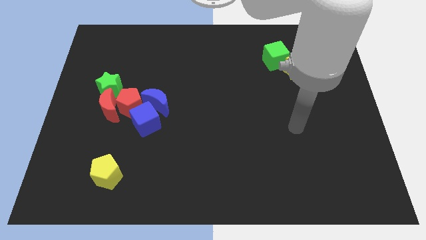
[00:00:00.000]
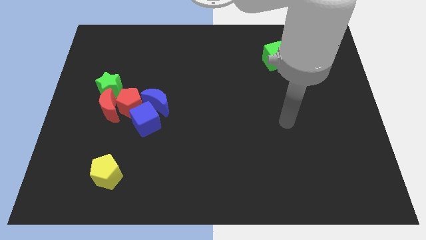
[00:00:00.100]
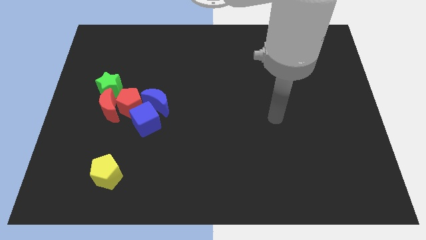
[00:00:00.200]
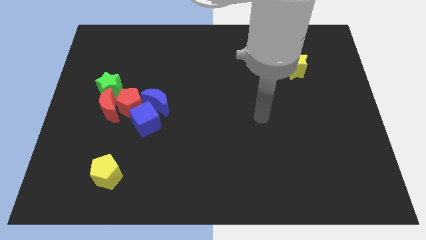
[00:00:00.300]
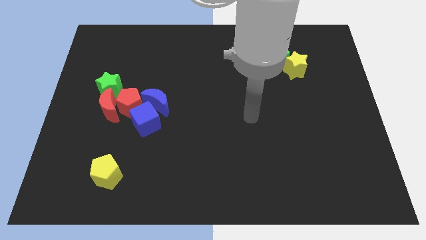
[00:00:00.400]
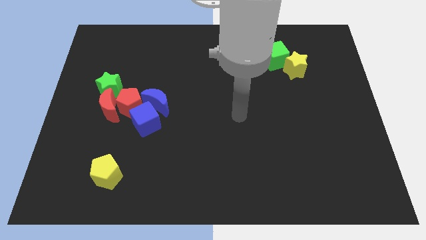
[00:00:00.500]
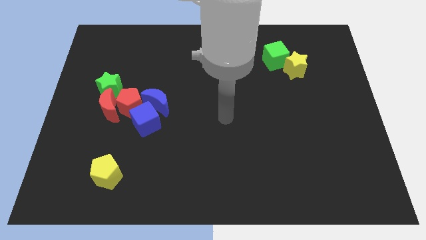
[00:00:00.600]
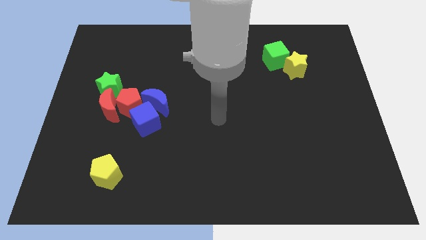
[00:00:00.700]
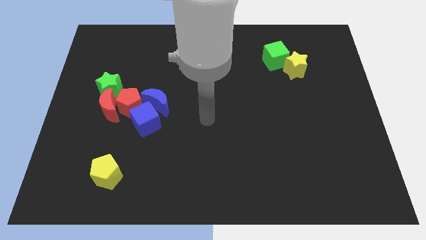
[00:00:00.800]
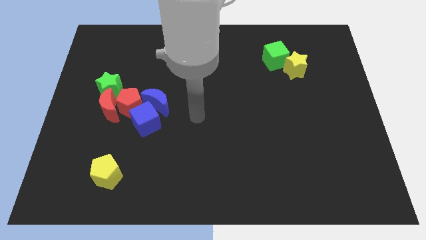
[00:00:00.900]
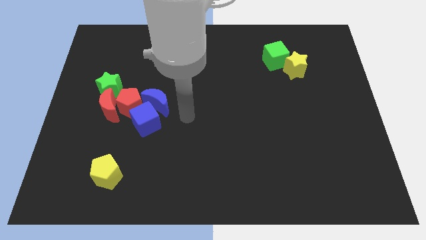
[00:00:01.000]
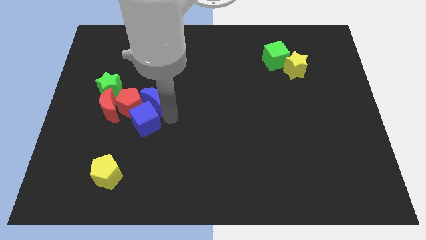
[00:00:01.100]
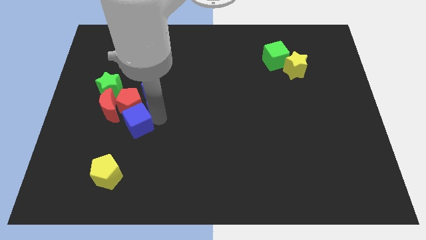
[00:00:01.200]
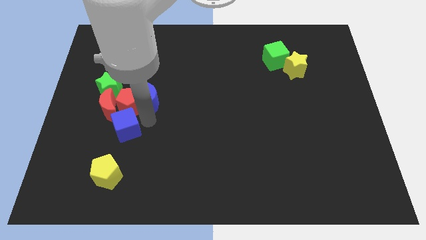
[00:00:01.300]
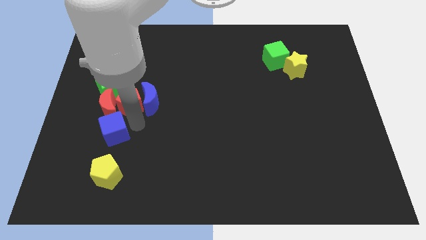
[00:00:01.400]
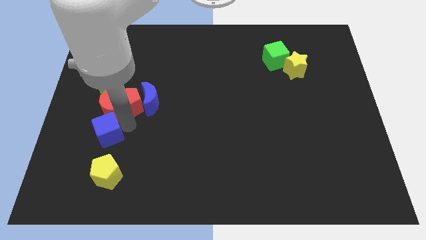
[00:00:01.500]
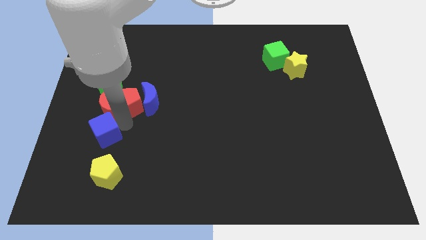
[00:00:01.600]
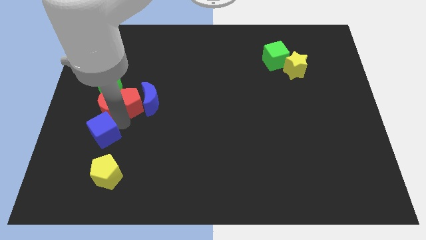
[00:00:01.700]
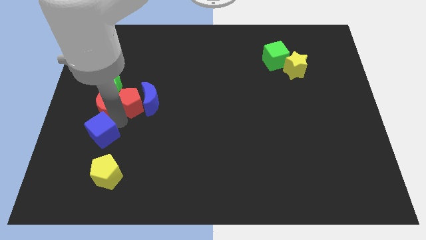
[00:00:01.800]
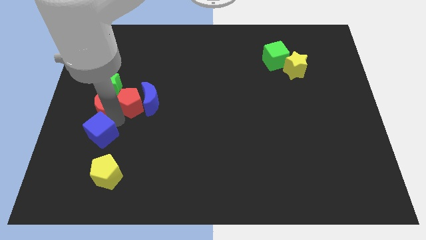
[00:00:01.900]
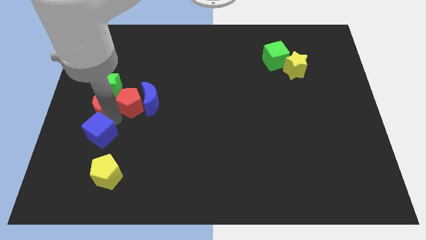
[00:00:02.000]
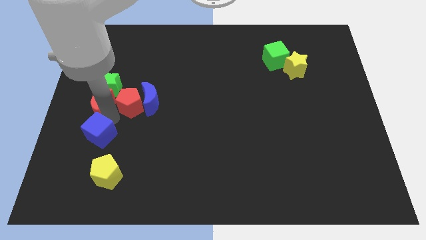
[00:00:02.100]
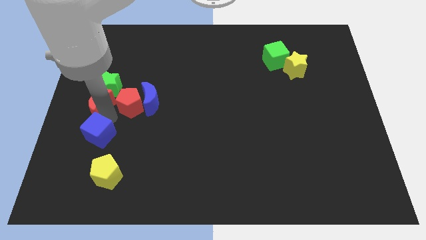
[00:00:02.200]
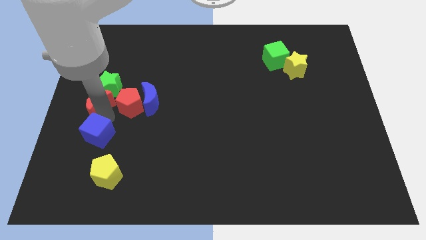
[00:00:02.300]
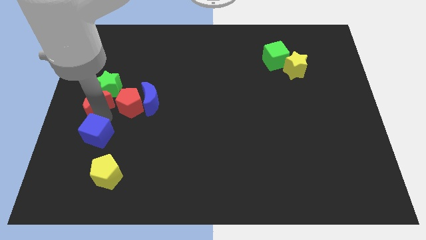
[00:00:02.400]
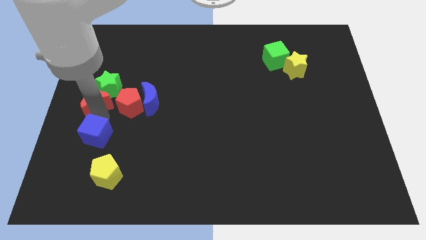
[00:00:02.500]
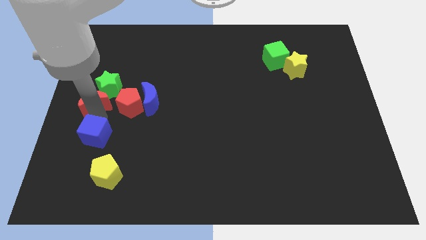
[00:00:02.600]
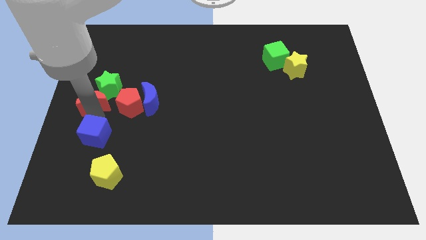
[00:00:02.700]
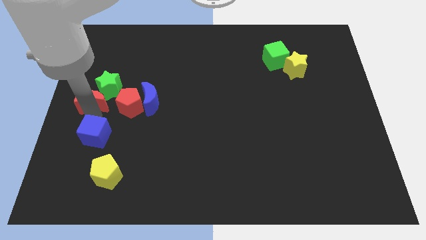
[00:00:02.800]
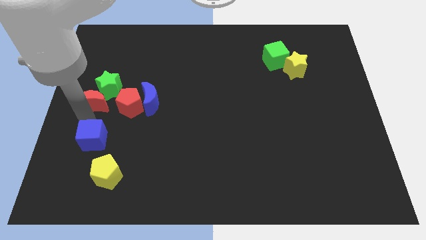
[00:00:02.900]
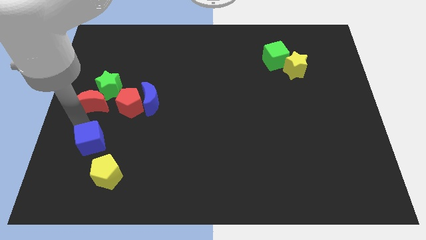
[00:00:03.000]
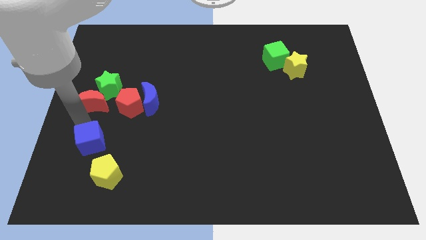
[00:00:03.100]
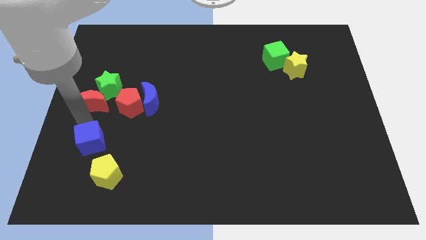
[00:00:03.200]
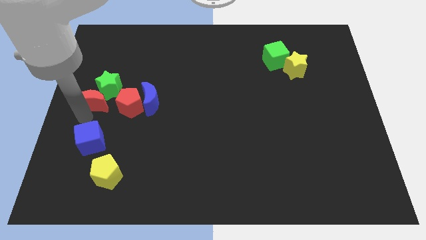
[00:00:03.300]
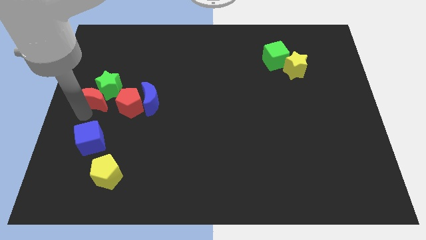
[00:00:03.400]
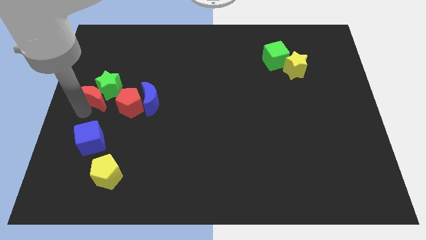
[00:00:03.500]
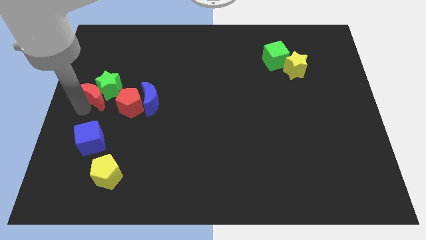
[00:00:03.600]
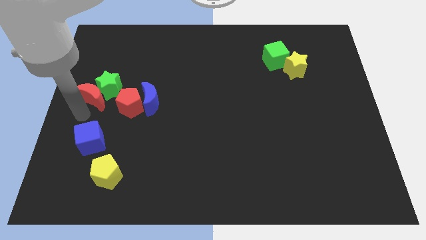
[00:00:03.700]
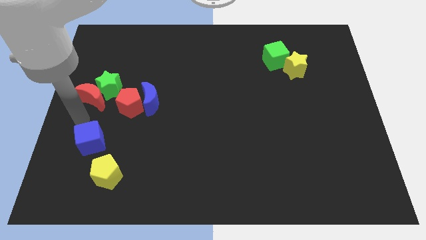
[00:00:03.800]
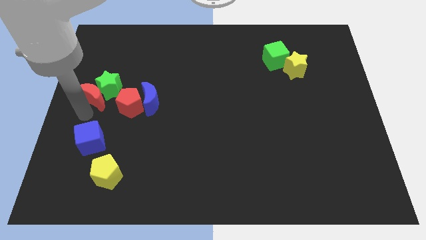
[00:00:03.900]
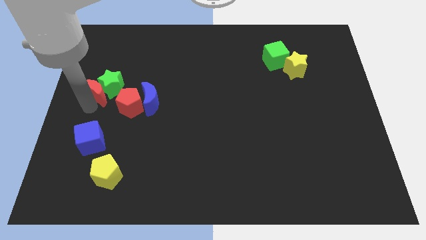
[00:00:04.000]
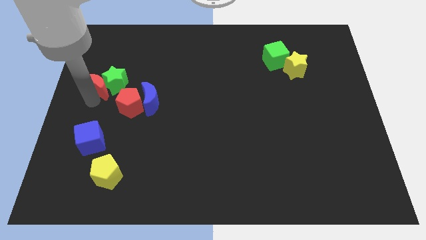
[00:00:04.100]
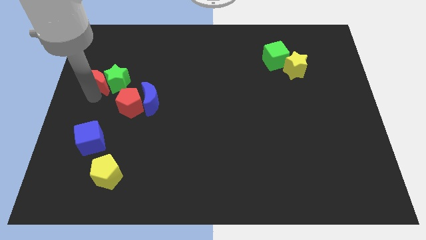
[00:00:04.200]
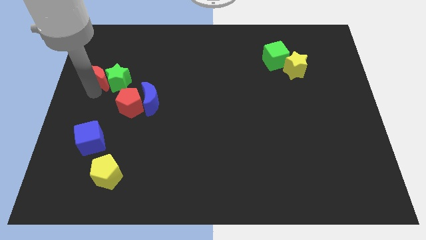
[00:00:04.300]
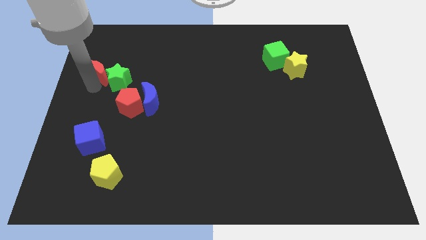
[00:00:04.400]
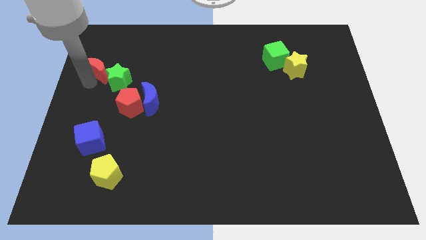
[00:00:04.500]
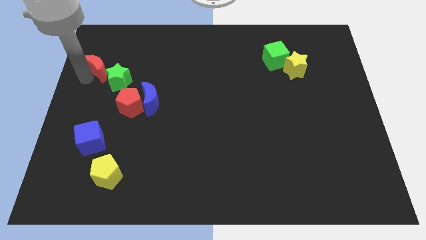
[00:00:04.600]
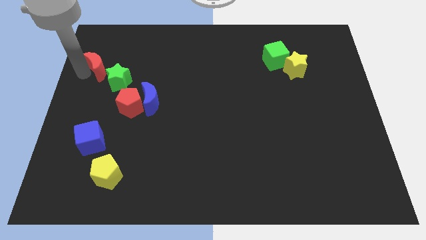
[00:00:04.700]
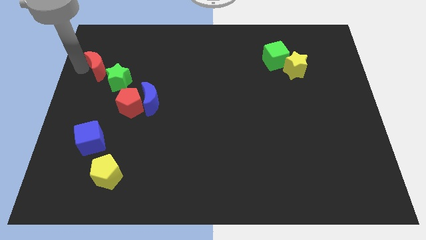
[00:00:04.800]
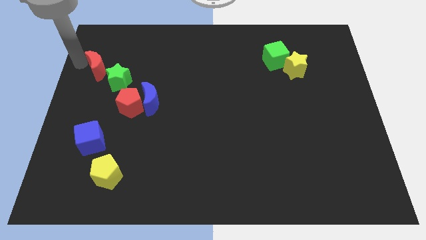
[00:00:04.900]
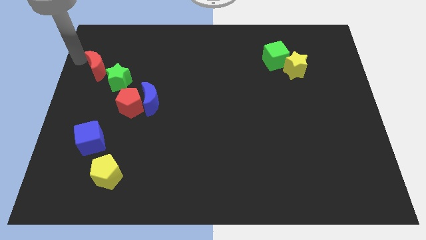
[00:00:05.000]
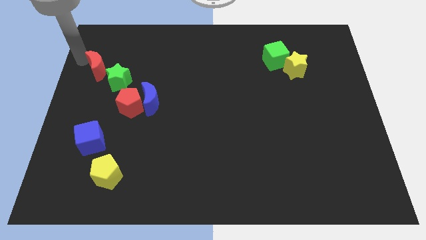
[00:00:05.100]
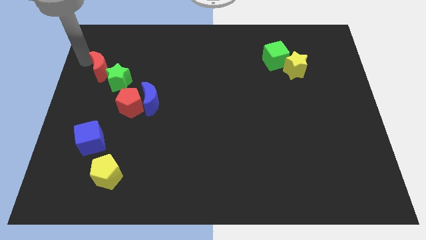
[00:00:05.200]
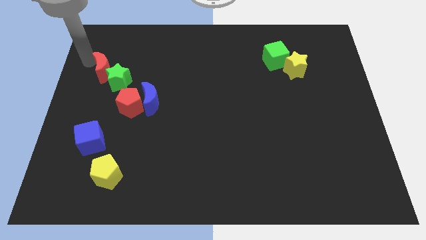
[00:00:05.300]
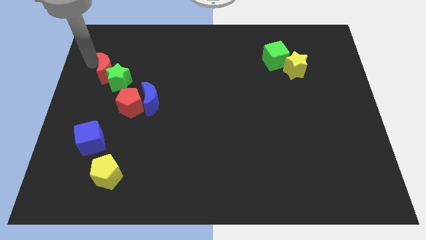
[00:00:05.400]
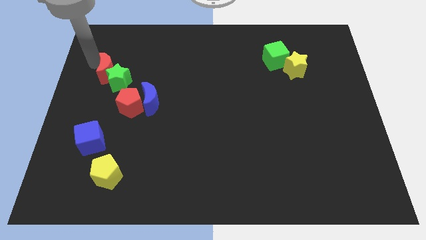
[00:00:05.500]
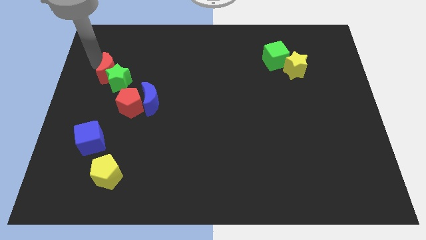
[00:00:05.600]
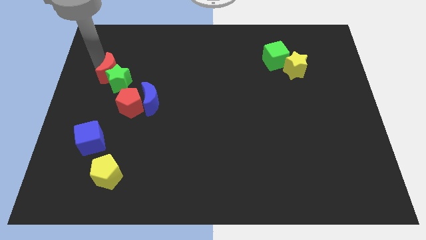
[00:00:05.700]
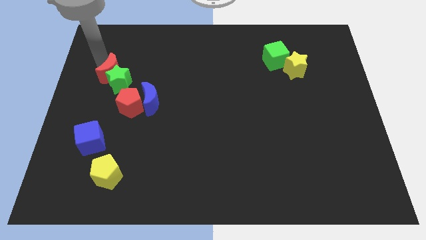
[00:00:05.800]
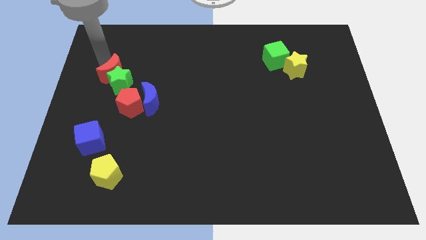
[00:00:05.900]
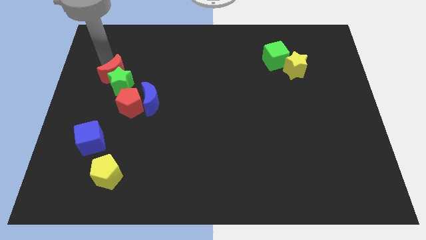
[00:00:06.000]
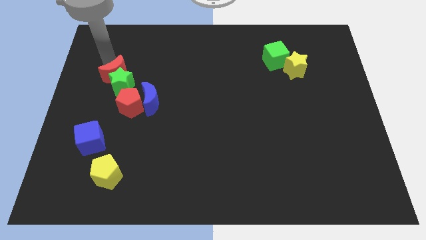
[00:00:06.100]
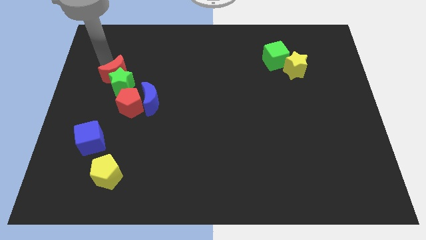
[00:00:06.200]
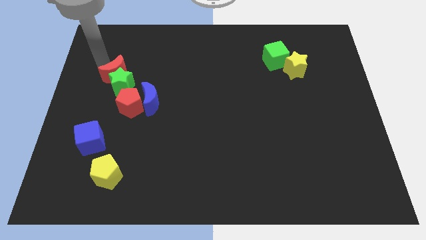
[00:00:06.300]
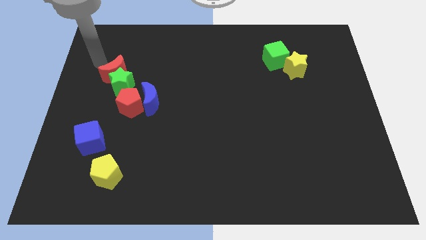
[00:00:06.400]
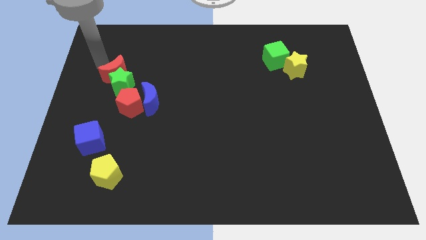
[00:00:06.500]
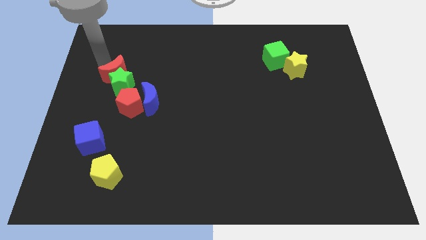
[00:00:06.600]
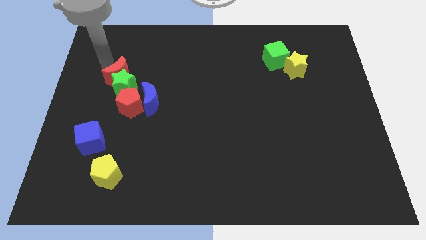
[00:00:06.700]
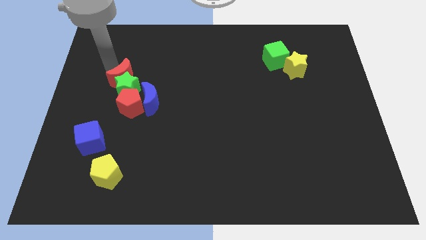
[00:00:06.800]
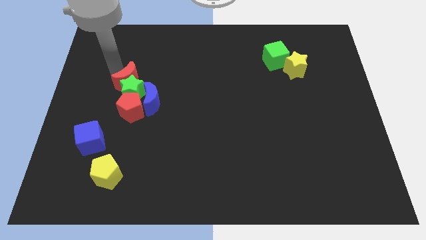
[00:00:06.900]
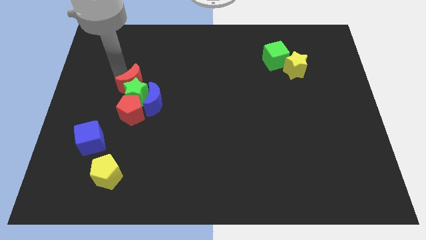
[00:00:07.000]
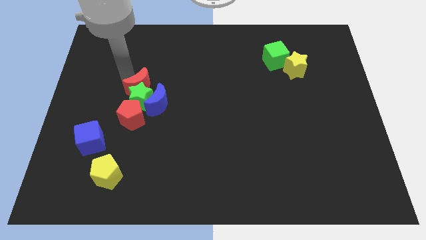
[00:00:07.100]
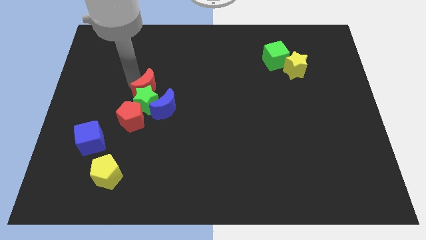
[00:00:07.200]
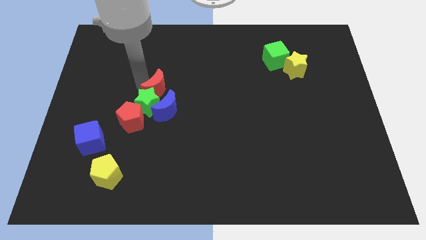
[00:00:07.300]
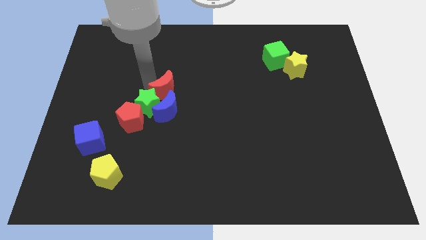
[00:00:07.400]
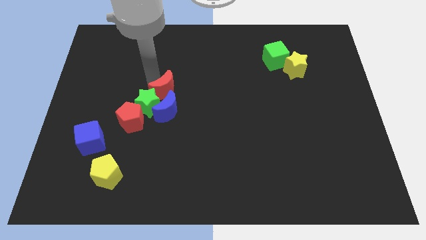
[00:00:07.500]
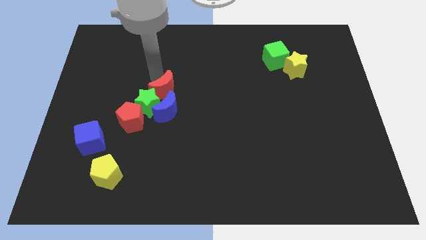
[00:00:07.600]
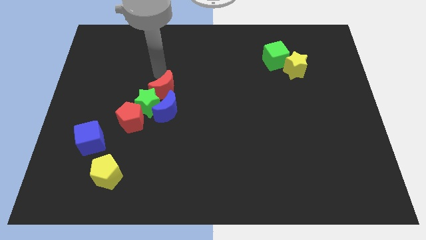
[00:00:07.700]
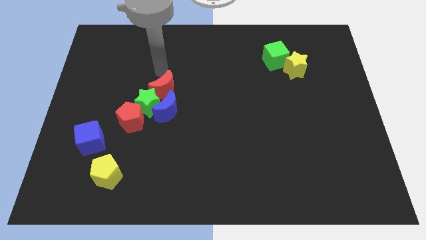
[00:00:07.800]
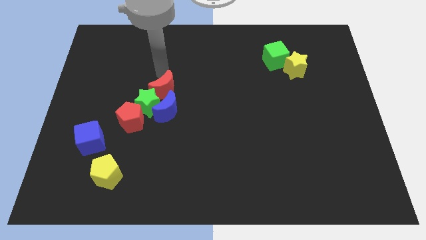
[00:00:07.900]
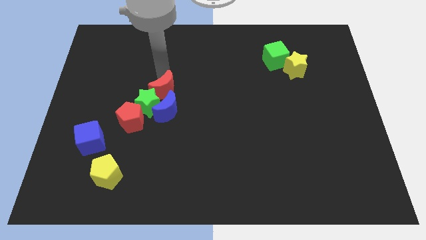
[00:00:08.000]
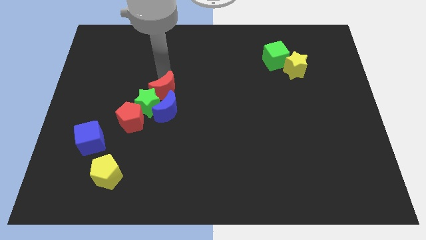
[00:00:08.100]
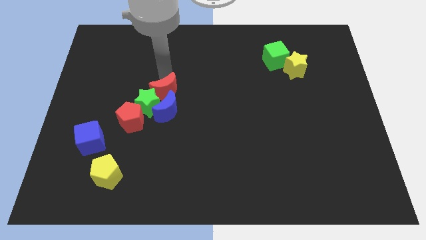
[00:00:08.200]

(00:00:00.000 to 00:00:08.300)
move the red moon close to the blue moon
